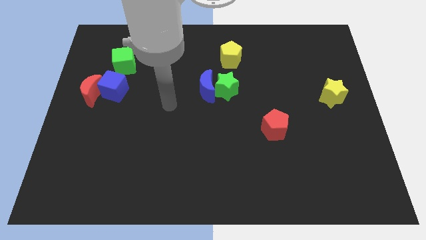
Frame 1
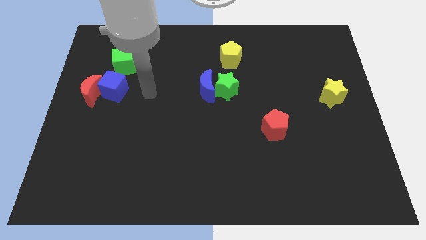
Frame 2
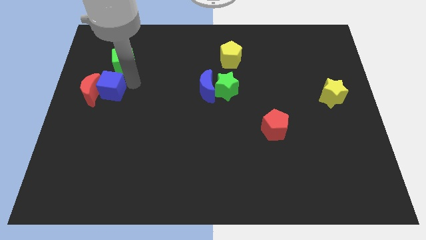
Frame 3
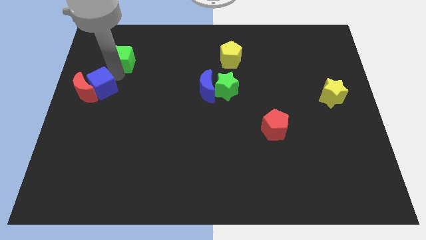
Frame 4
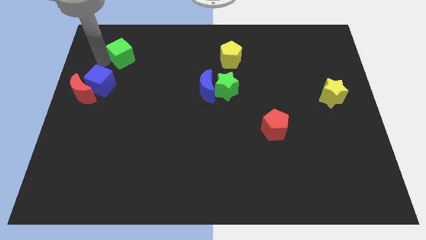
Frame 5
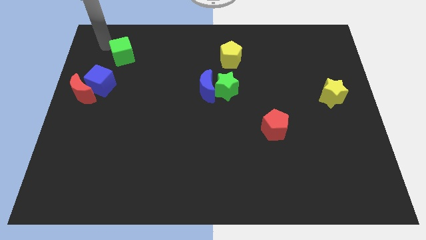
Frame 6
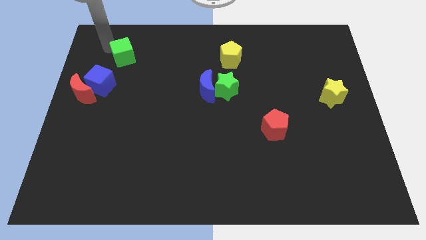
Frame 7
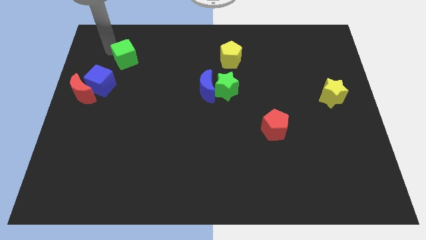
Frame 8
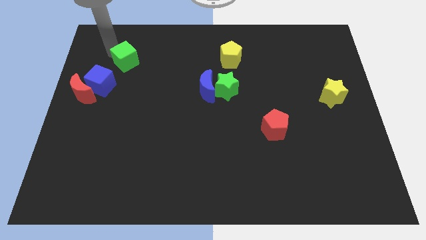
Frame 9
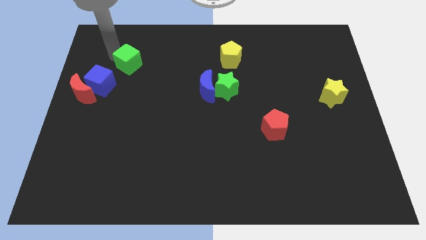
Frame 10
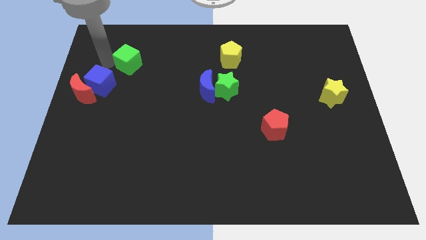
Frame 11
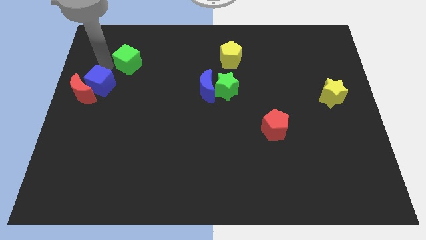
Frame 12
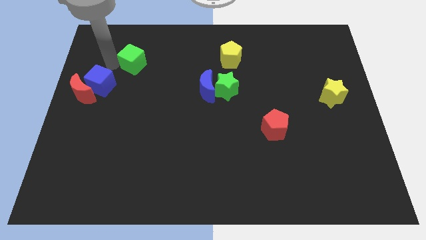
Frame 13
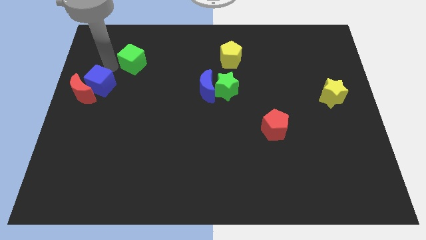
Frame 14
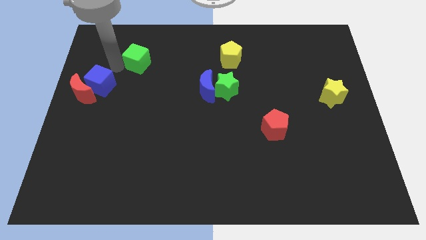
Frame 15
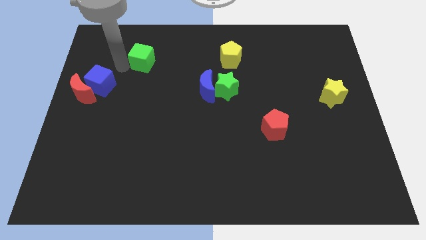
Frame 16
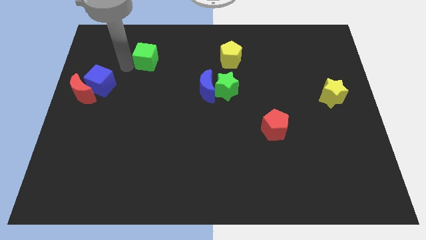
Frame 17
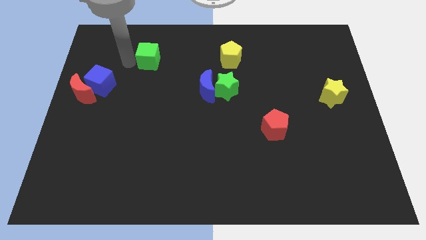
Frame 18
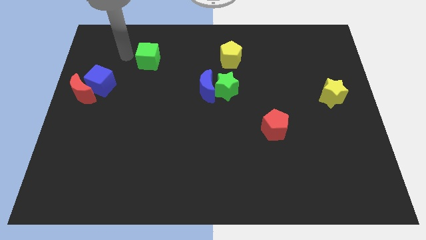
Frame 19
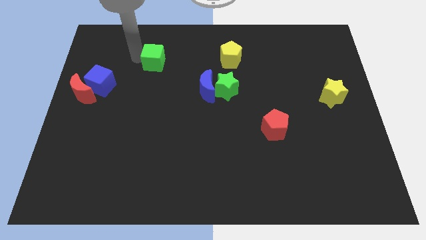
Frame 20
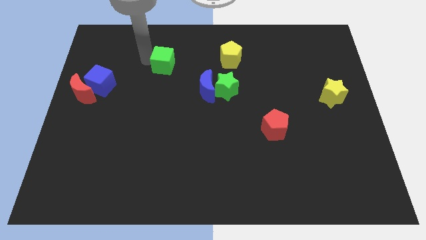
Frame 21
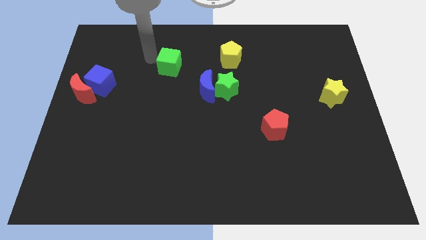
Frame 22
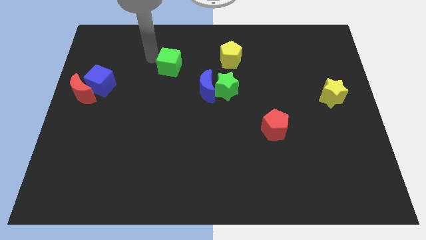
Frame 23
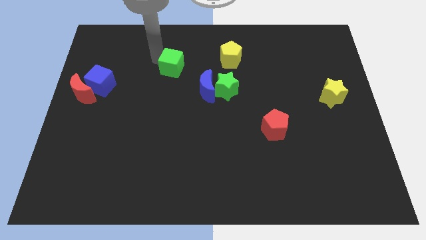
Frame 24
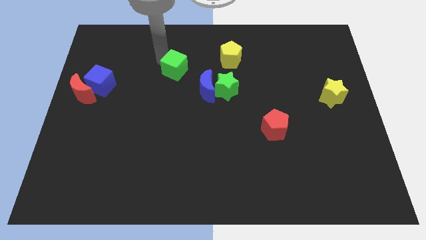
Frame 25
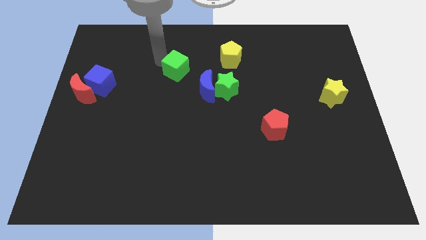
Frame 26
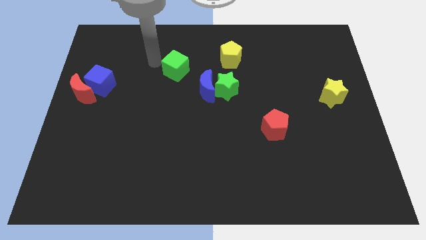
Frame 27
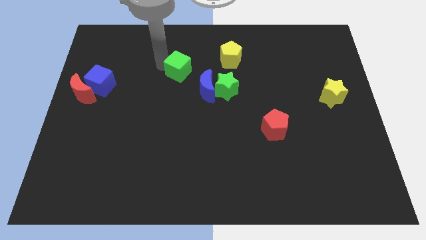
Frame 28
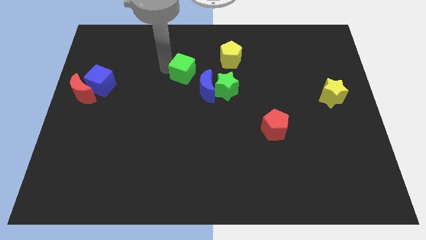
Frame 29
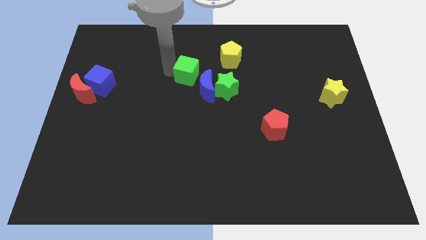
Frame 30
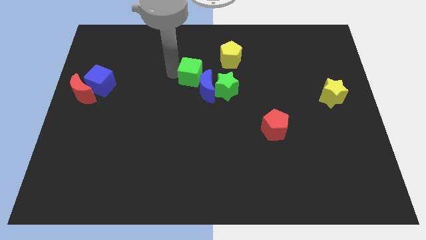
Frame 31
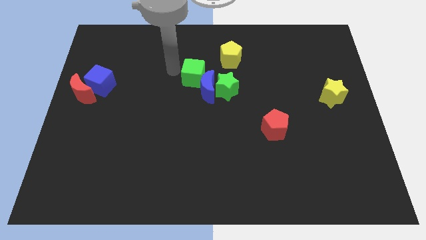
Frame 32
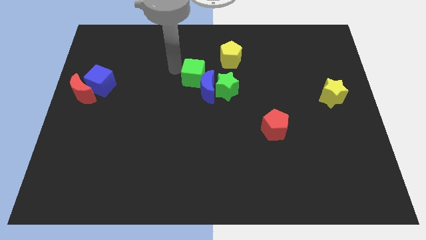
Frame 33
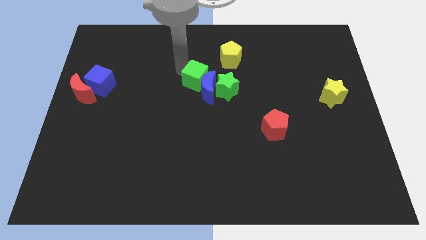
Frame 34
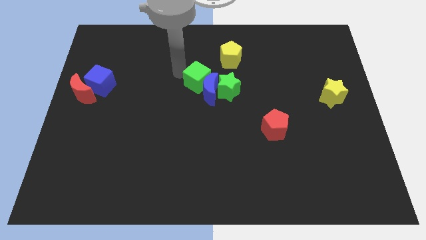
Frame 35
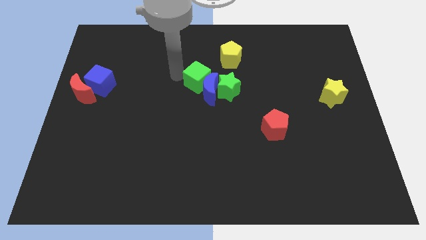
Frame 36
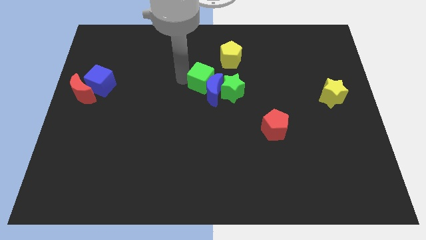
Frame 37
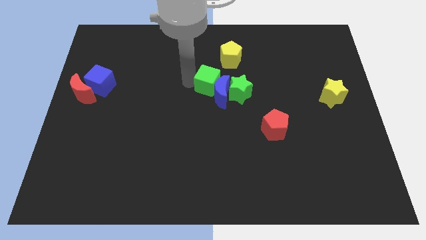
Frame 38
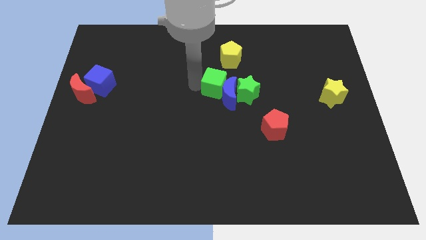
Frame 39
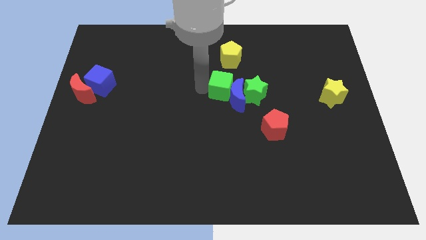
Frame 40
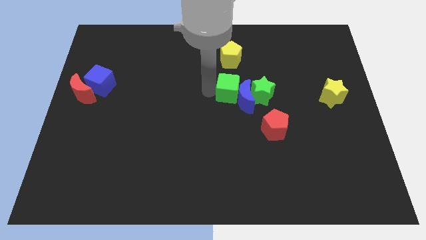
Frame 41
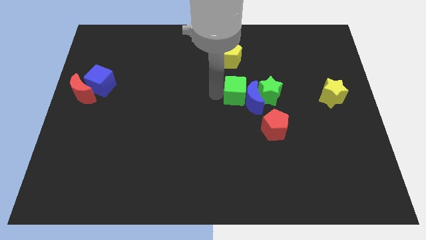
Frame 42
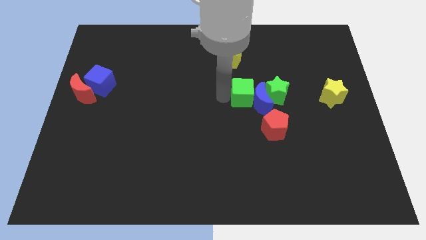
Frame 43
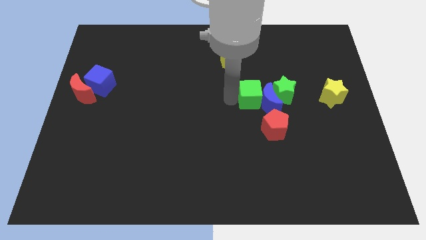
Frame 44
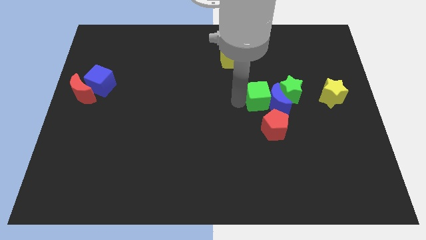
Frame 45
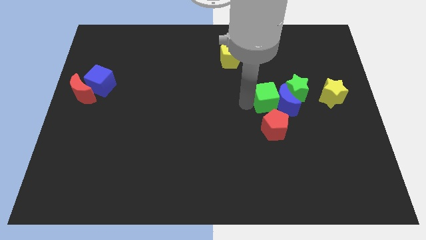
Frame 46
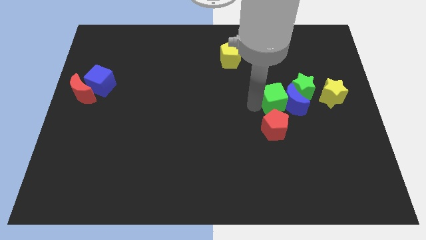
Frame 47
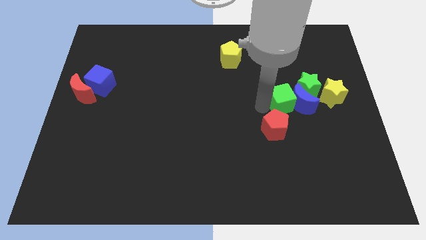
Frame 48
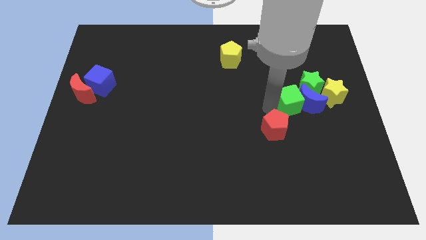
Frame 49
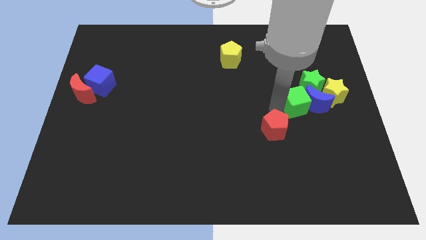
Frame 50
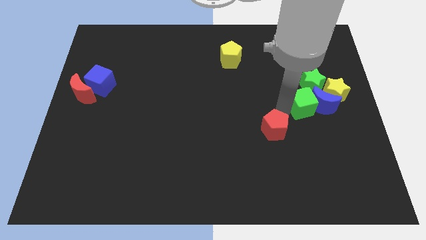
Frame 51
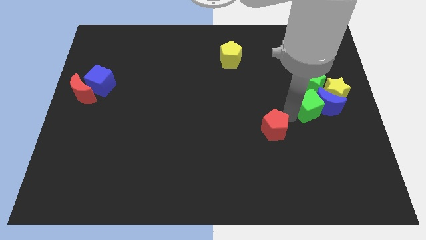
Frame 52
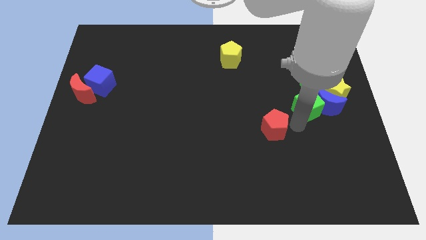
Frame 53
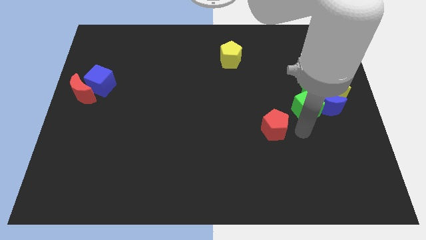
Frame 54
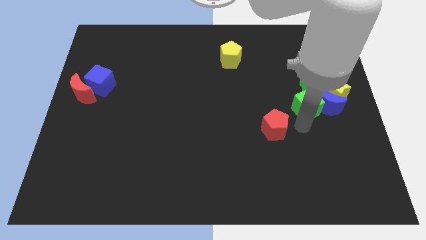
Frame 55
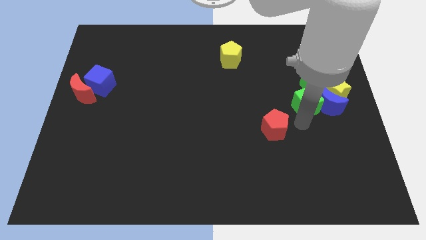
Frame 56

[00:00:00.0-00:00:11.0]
move the green cube close to the green star

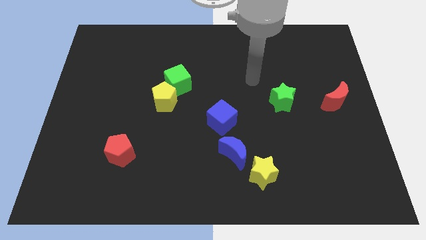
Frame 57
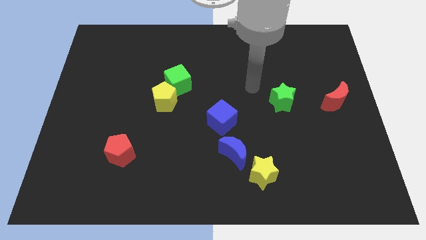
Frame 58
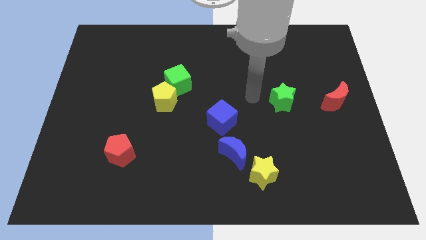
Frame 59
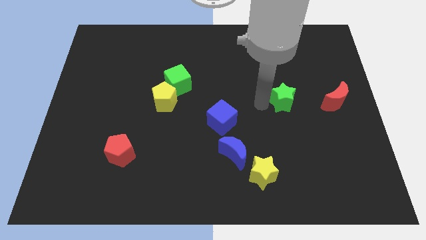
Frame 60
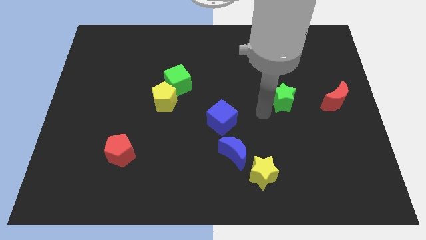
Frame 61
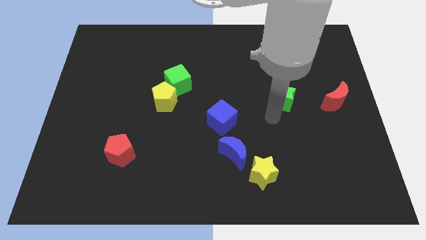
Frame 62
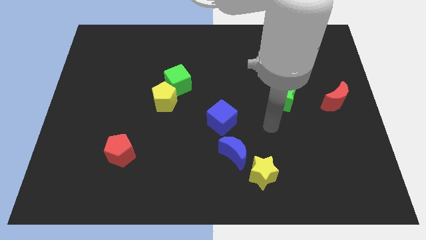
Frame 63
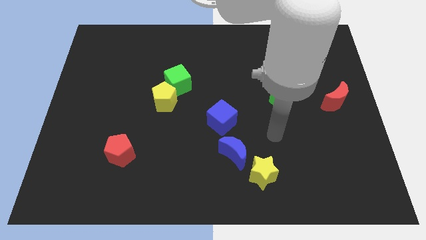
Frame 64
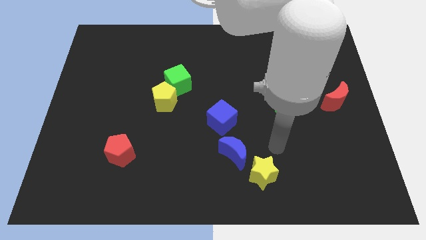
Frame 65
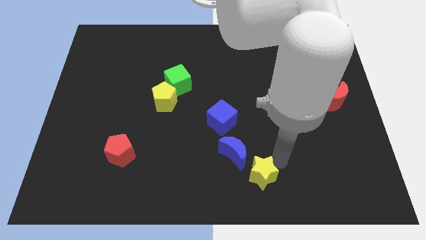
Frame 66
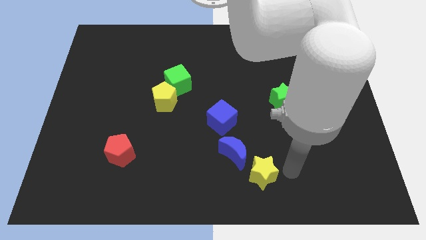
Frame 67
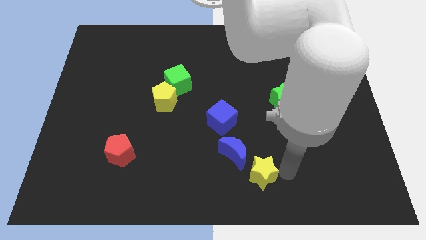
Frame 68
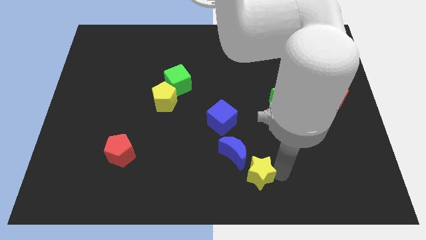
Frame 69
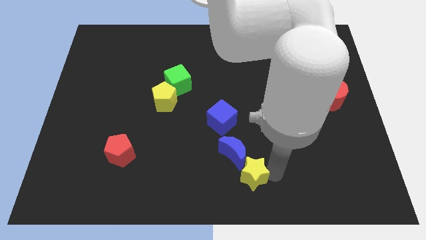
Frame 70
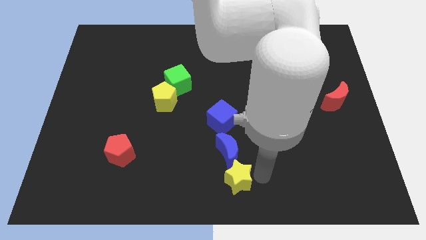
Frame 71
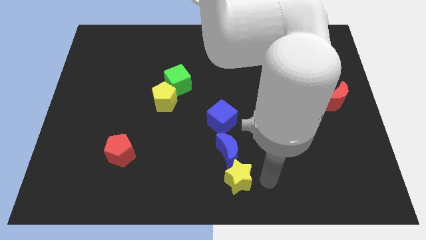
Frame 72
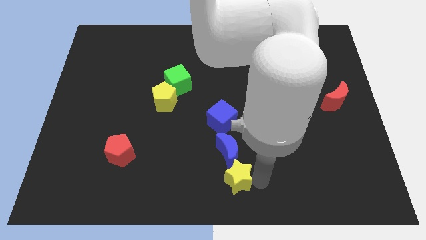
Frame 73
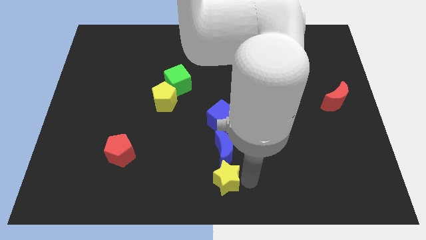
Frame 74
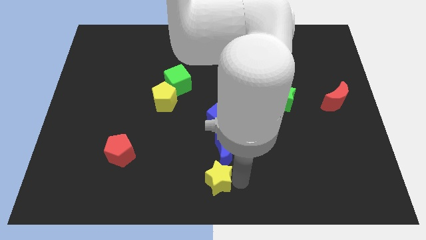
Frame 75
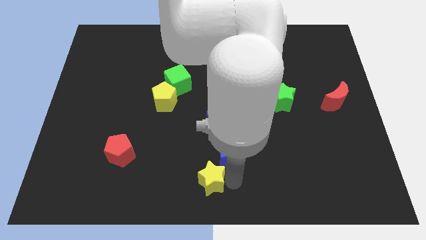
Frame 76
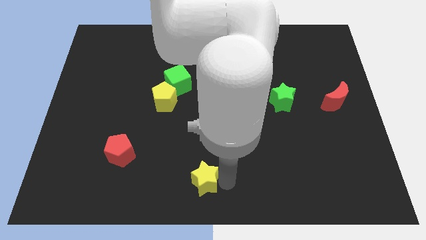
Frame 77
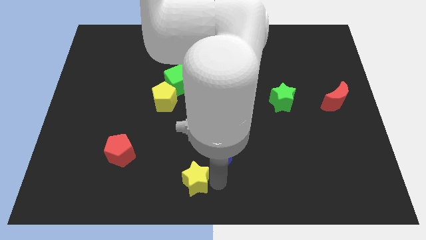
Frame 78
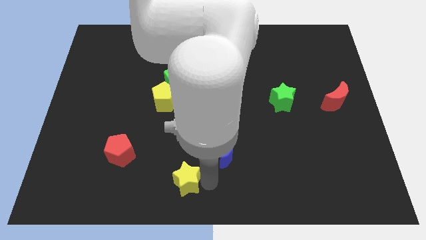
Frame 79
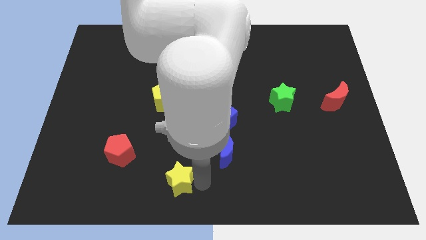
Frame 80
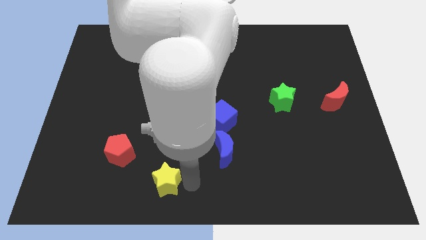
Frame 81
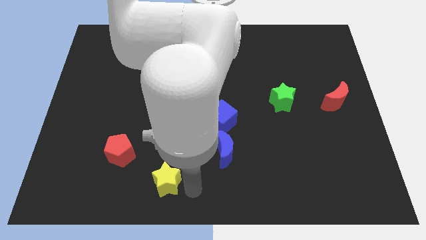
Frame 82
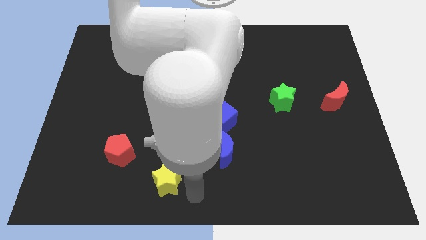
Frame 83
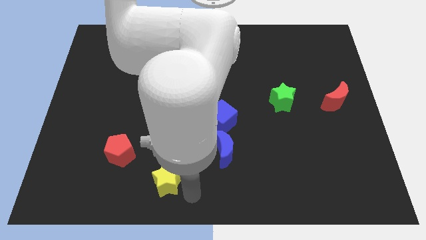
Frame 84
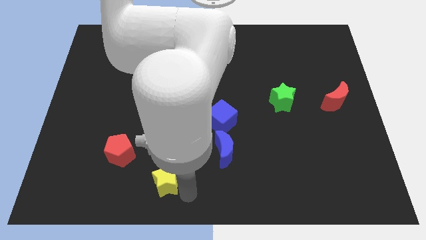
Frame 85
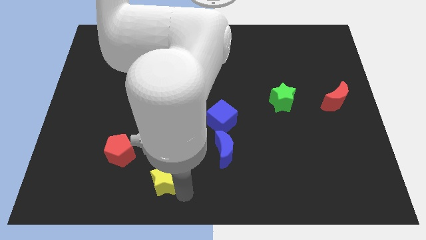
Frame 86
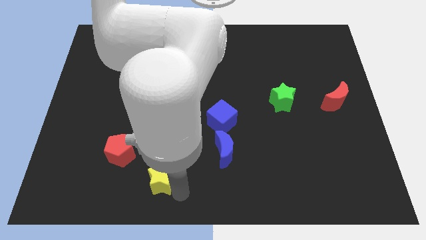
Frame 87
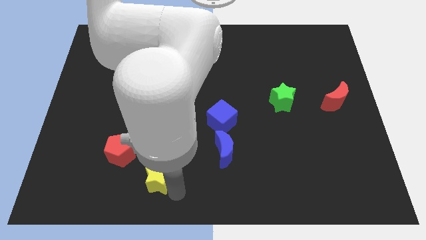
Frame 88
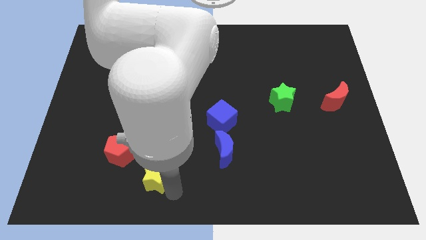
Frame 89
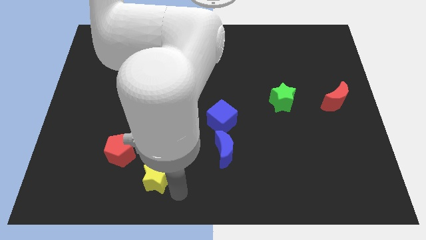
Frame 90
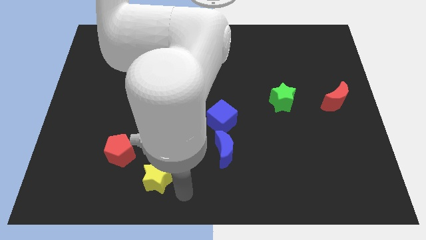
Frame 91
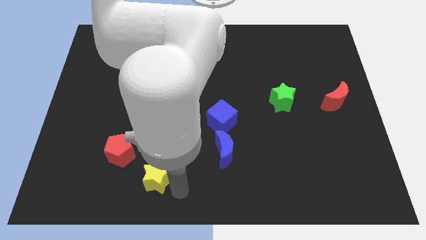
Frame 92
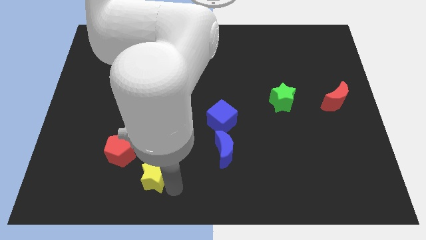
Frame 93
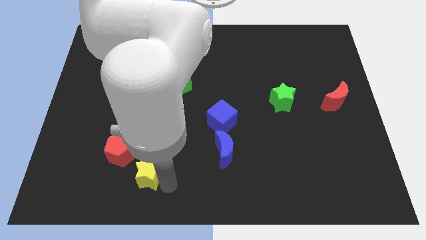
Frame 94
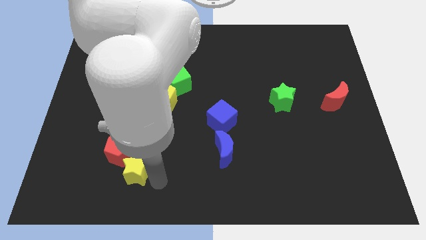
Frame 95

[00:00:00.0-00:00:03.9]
move the yellow star to the red pentagon
